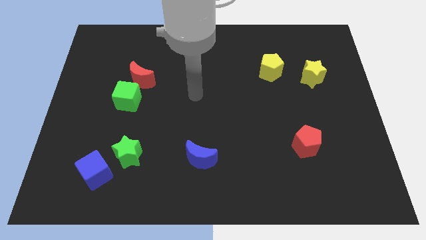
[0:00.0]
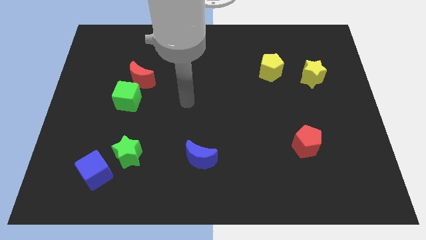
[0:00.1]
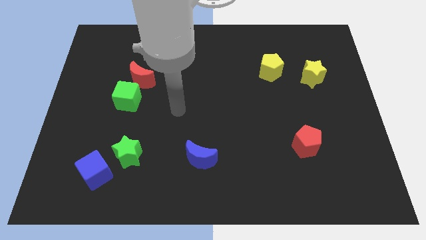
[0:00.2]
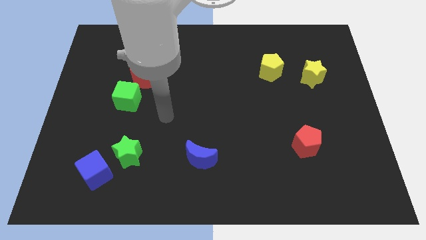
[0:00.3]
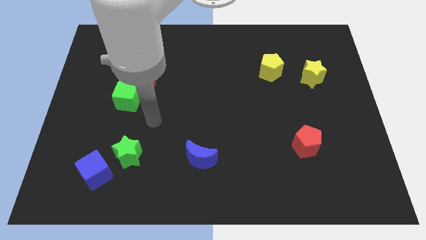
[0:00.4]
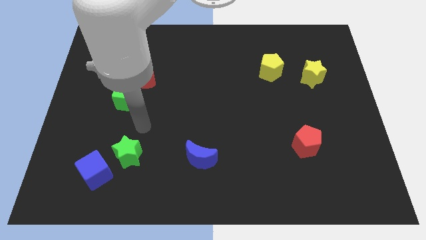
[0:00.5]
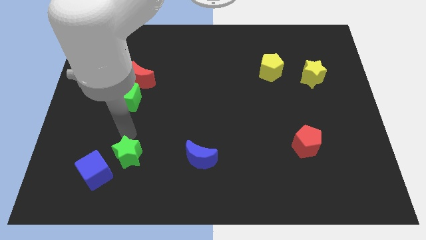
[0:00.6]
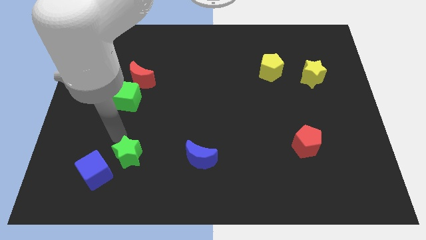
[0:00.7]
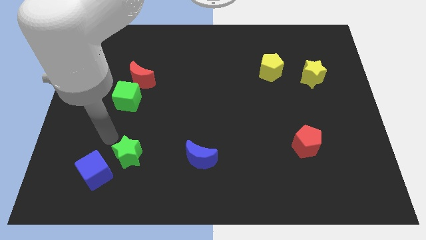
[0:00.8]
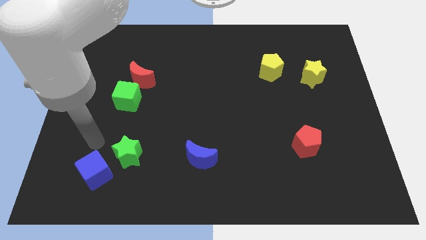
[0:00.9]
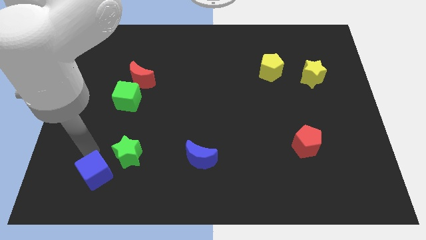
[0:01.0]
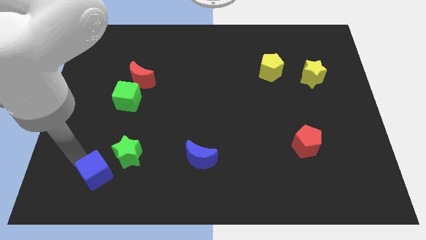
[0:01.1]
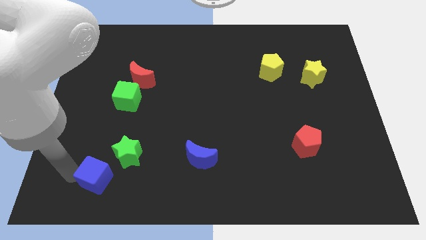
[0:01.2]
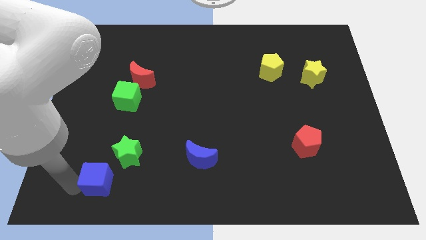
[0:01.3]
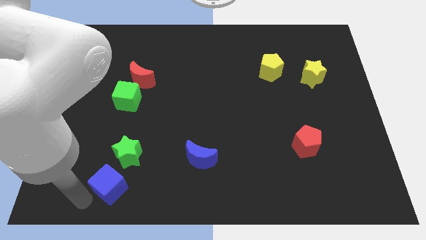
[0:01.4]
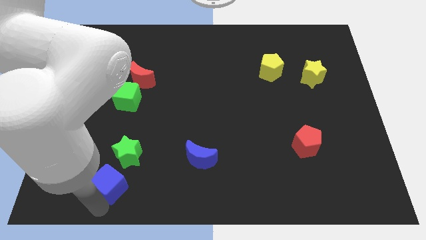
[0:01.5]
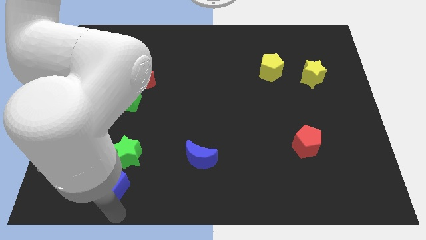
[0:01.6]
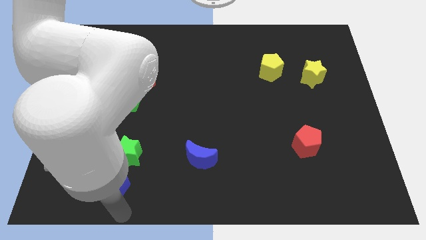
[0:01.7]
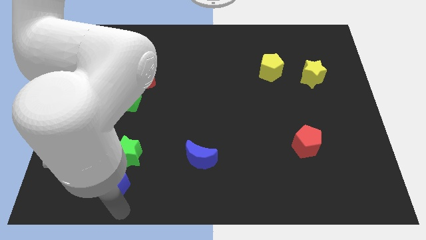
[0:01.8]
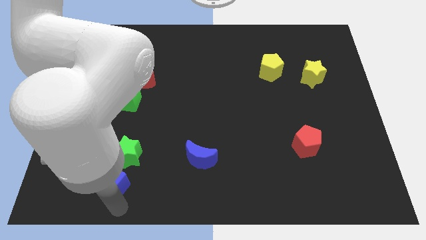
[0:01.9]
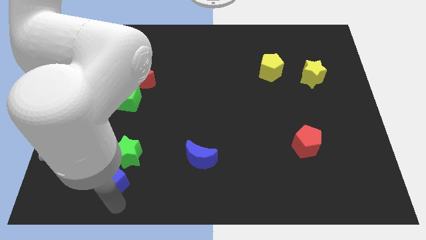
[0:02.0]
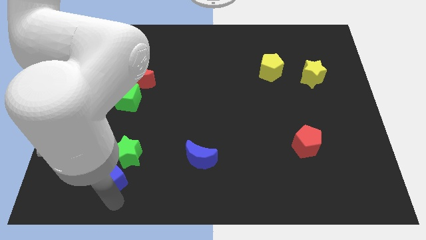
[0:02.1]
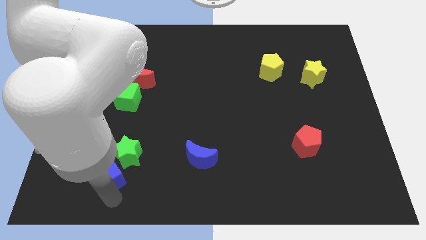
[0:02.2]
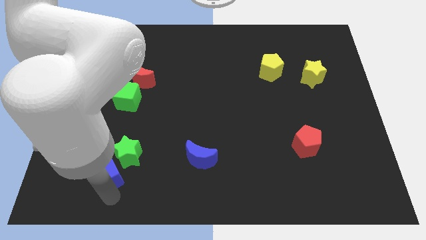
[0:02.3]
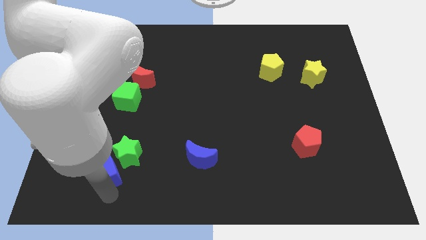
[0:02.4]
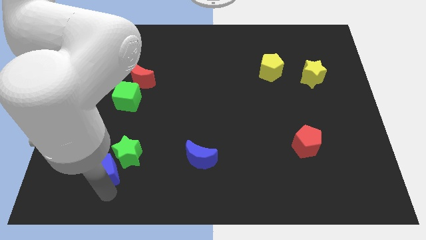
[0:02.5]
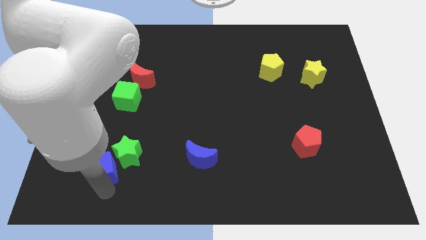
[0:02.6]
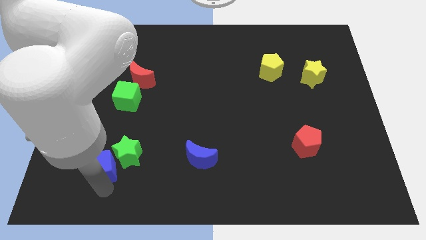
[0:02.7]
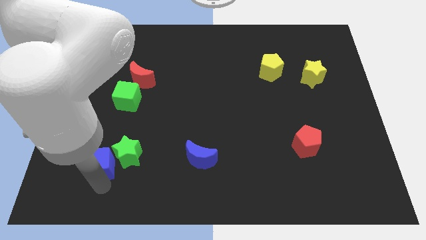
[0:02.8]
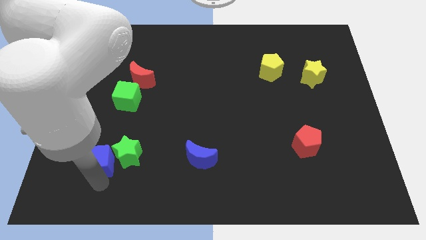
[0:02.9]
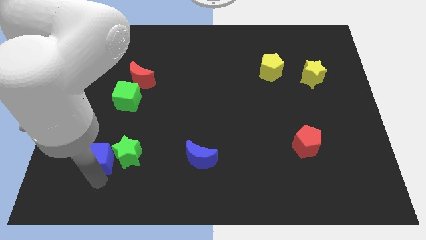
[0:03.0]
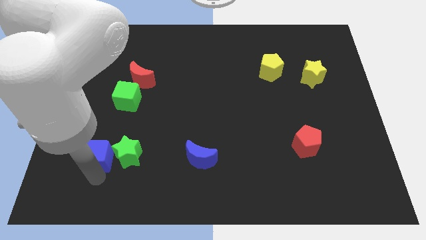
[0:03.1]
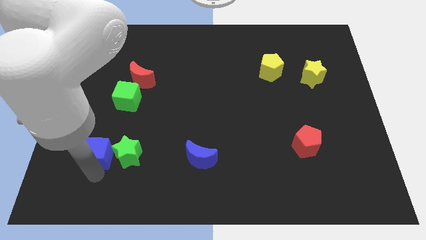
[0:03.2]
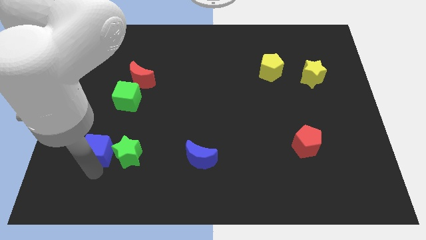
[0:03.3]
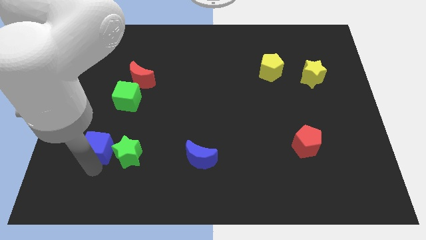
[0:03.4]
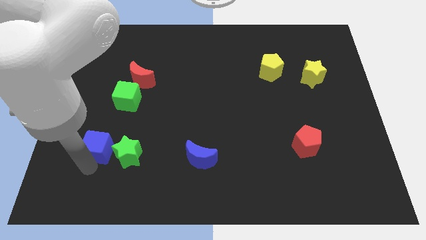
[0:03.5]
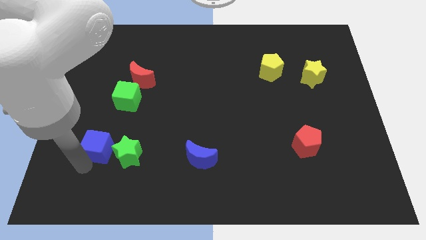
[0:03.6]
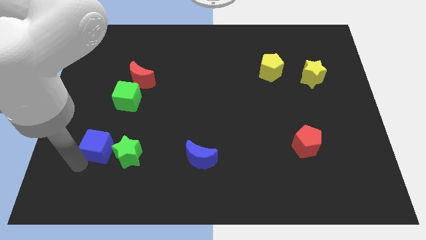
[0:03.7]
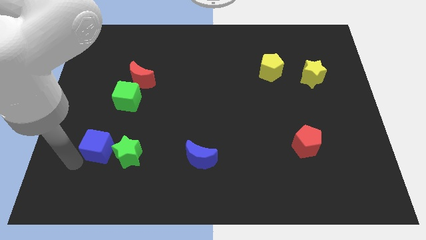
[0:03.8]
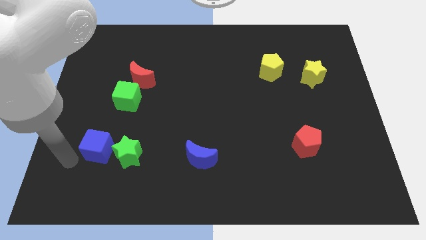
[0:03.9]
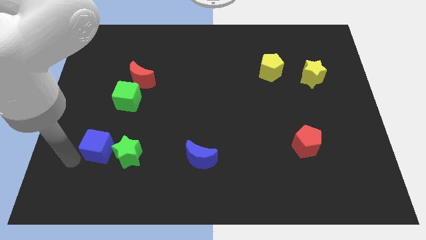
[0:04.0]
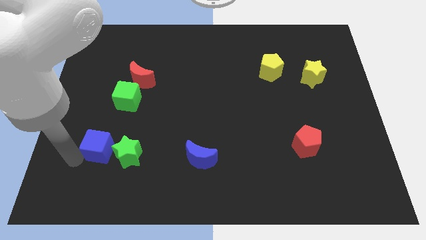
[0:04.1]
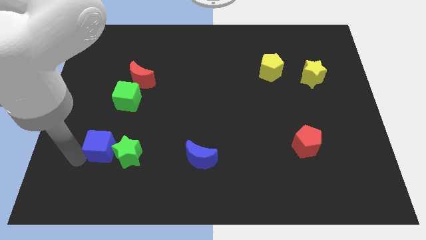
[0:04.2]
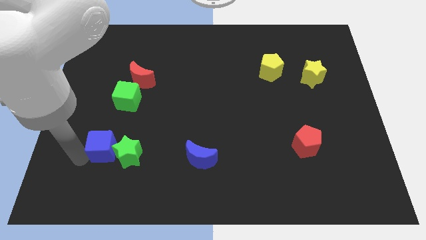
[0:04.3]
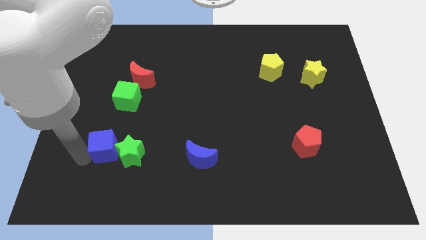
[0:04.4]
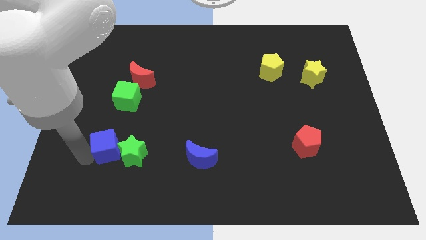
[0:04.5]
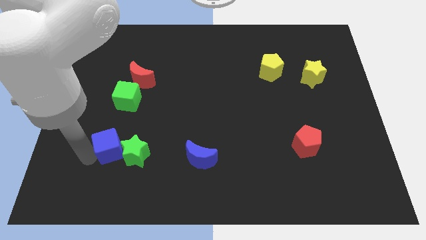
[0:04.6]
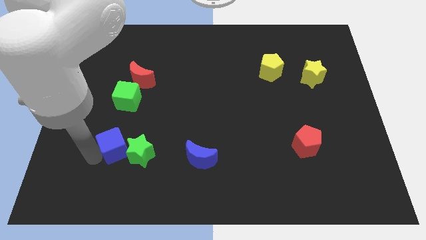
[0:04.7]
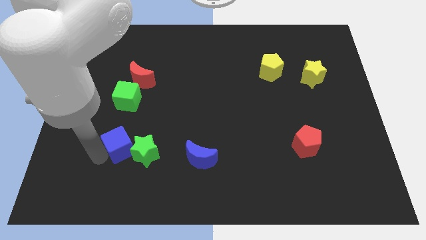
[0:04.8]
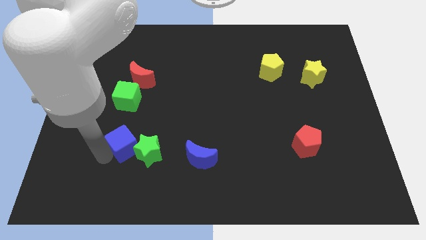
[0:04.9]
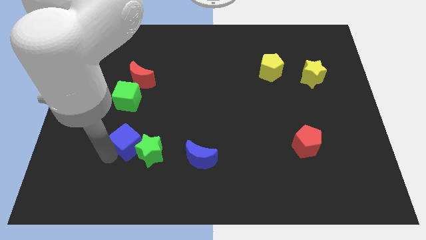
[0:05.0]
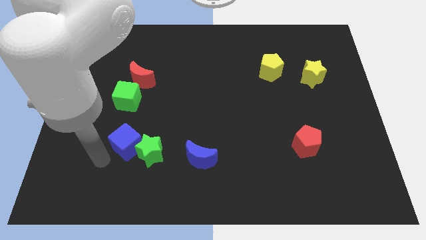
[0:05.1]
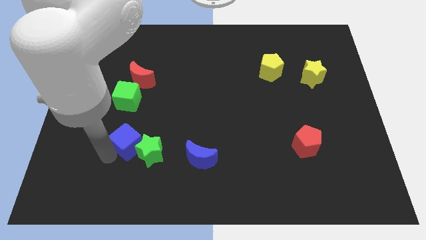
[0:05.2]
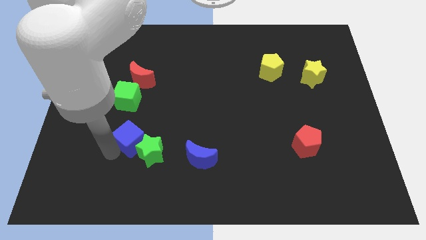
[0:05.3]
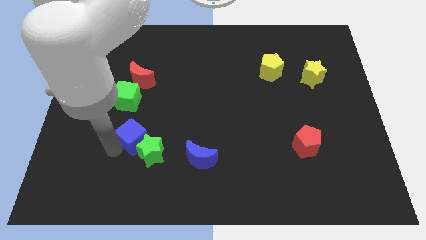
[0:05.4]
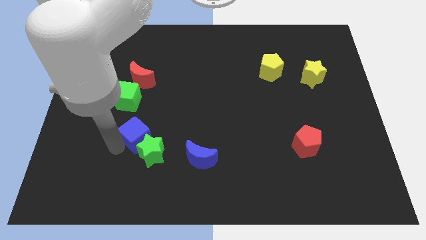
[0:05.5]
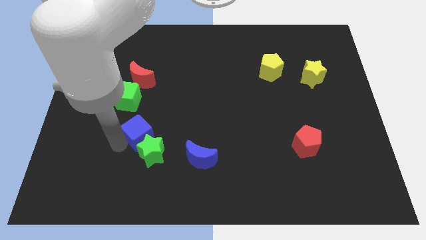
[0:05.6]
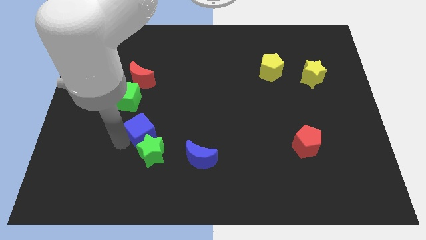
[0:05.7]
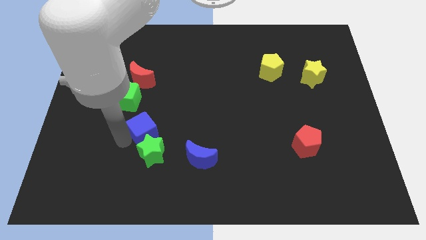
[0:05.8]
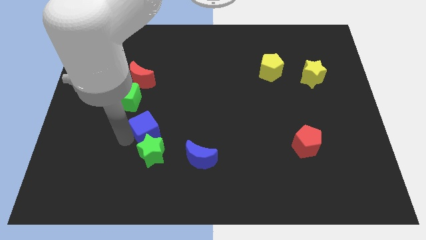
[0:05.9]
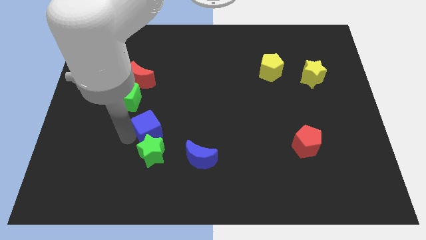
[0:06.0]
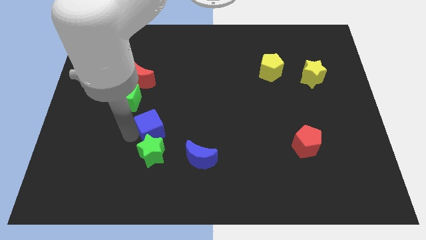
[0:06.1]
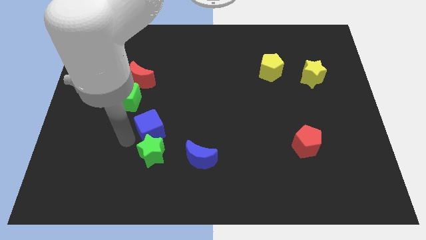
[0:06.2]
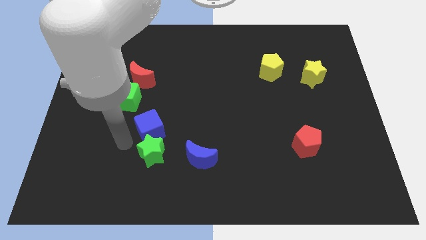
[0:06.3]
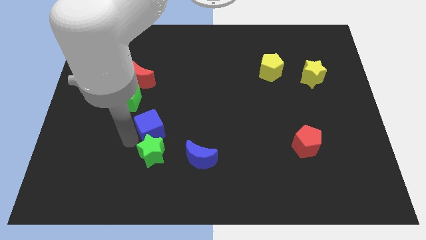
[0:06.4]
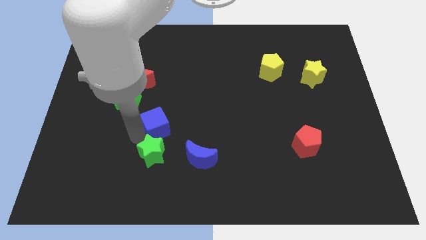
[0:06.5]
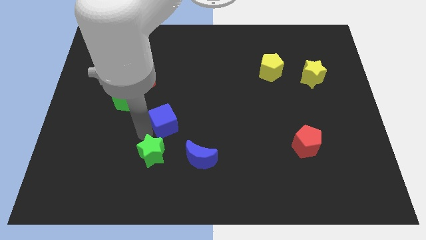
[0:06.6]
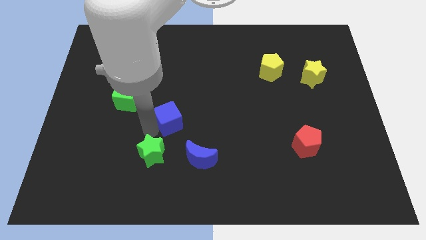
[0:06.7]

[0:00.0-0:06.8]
move the blue cube to the middle of the board
